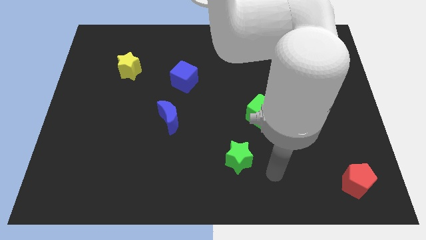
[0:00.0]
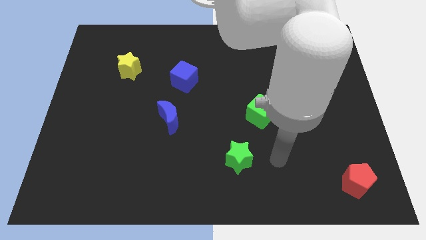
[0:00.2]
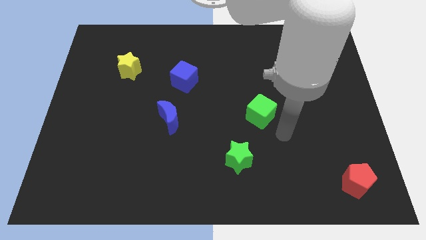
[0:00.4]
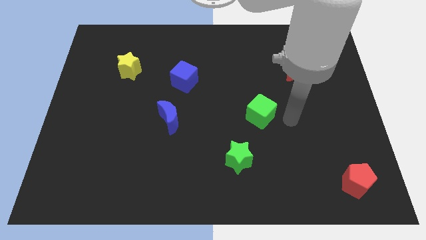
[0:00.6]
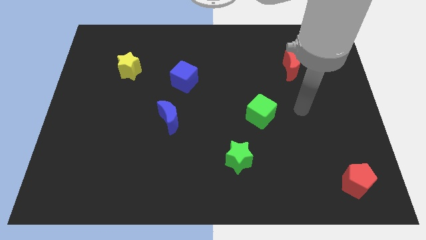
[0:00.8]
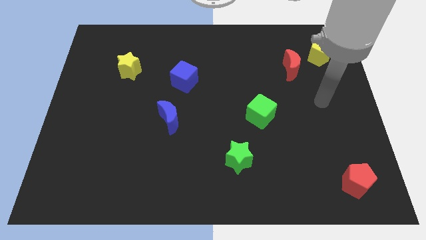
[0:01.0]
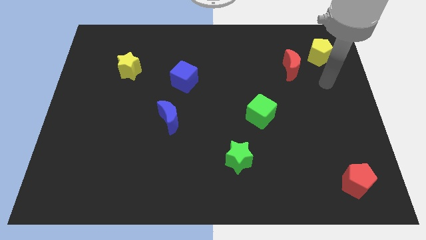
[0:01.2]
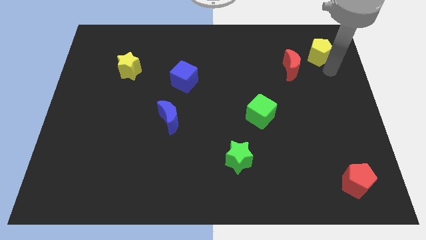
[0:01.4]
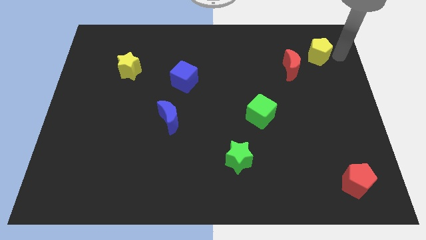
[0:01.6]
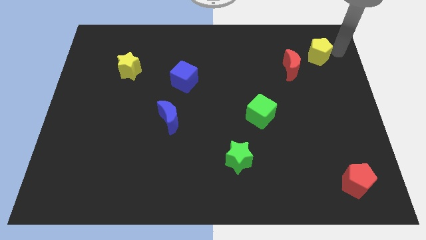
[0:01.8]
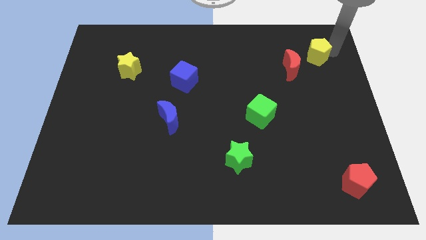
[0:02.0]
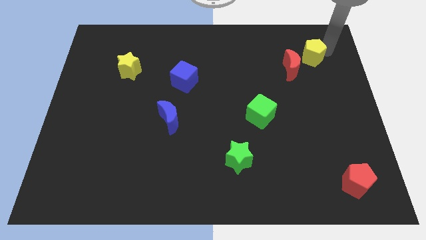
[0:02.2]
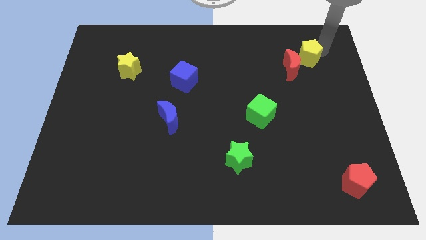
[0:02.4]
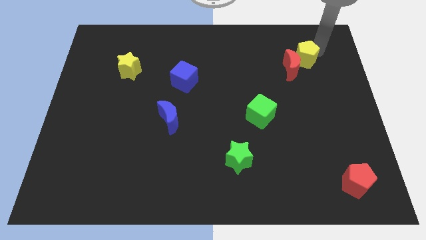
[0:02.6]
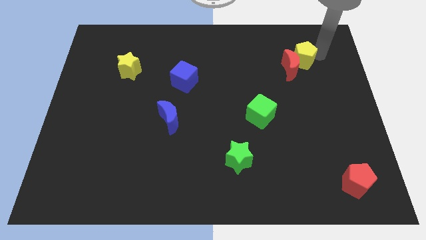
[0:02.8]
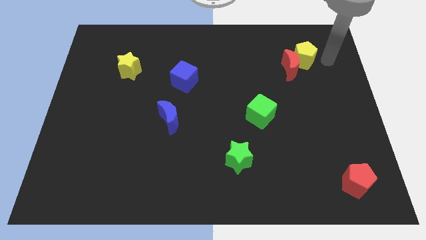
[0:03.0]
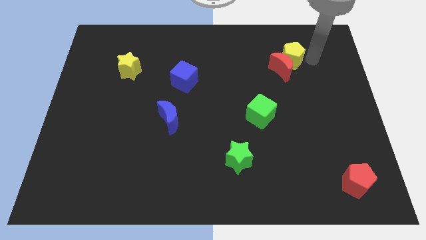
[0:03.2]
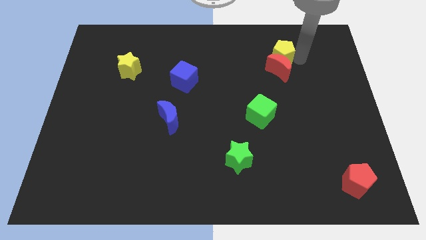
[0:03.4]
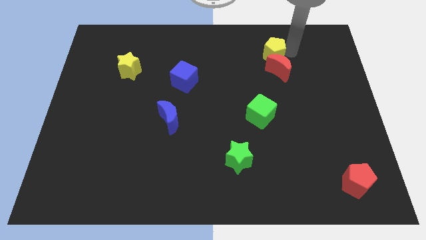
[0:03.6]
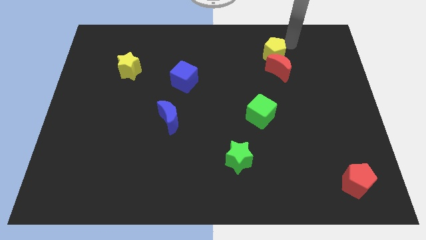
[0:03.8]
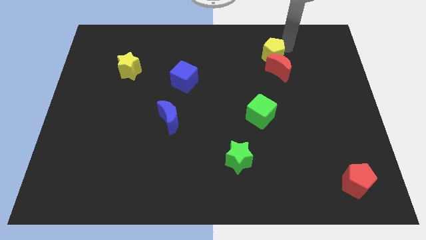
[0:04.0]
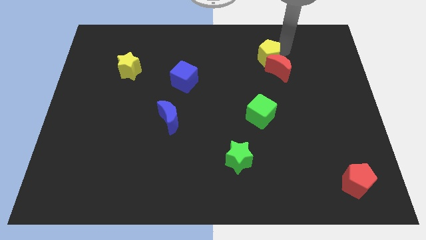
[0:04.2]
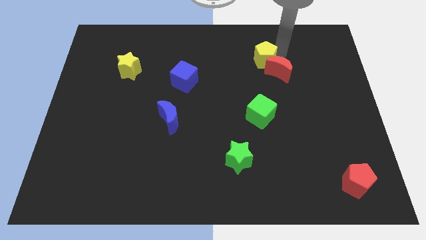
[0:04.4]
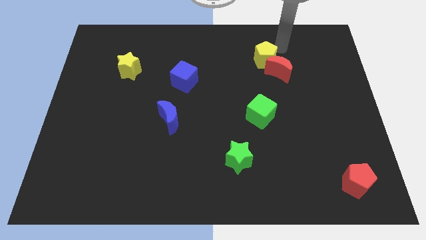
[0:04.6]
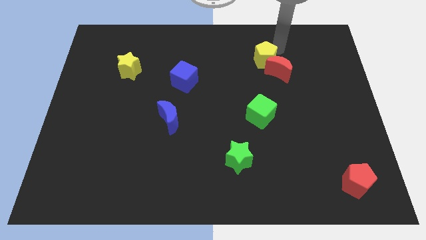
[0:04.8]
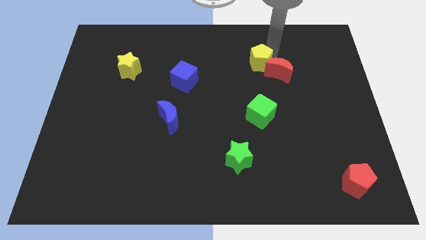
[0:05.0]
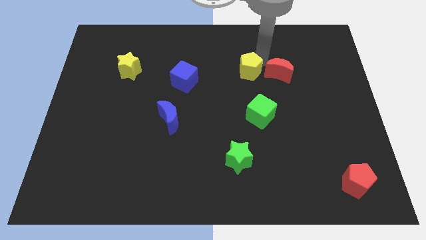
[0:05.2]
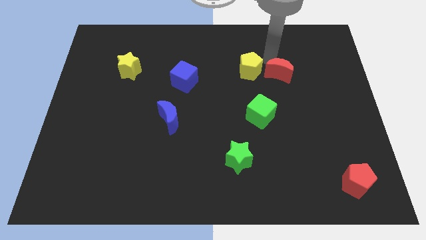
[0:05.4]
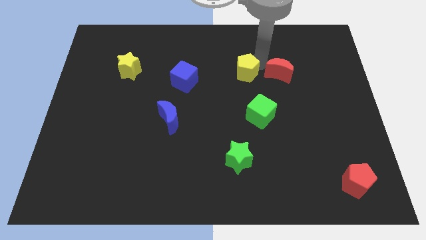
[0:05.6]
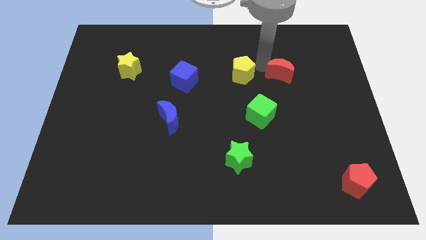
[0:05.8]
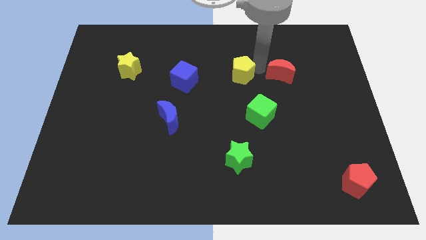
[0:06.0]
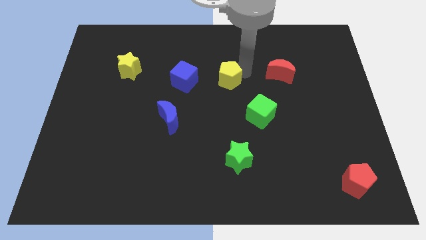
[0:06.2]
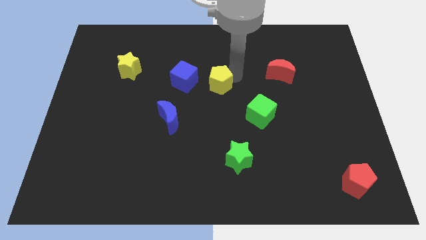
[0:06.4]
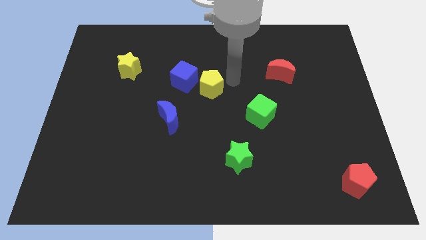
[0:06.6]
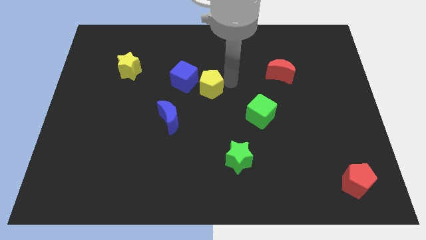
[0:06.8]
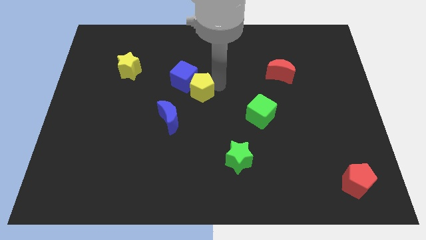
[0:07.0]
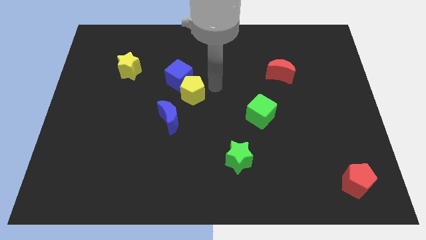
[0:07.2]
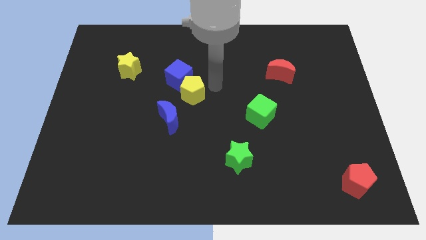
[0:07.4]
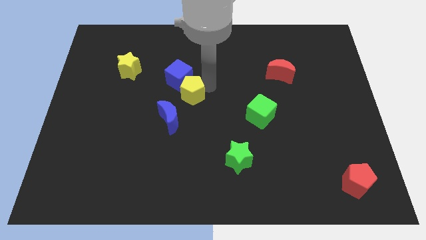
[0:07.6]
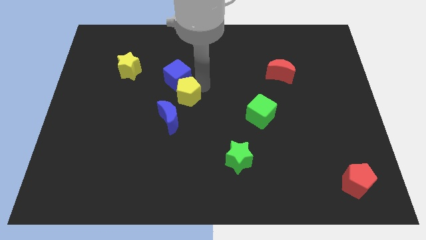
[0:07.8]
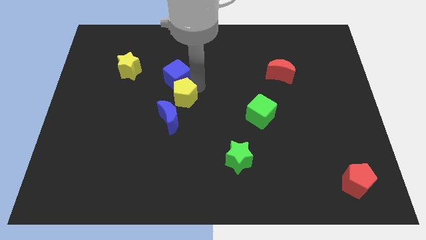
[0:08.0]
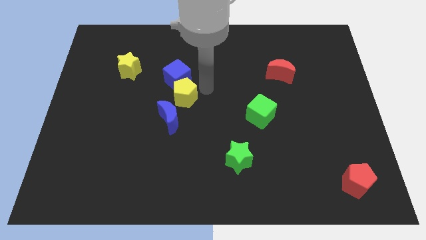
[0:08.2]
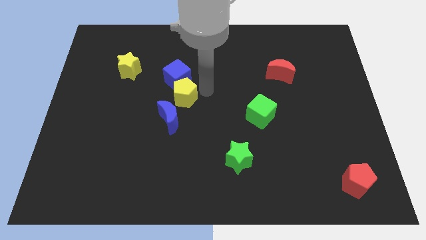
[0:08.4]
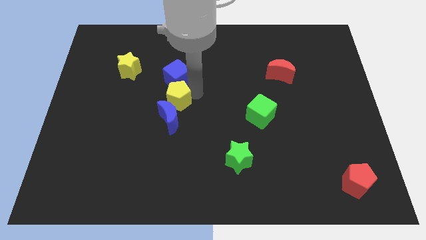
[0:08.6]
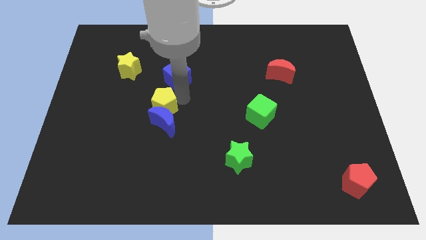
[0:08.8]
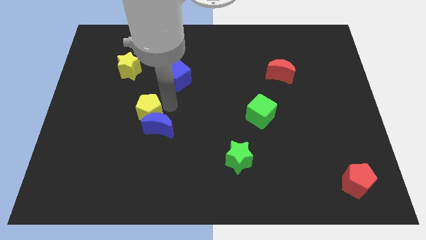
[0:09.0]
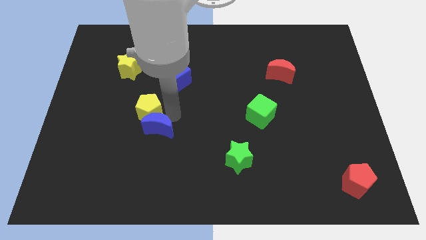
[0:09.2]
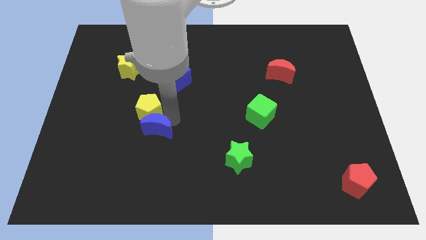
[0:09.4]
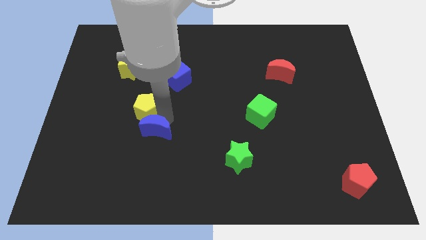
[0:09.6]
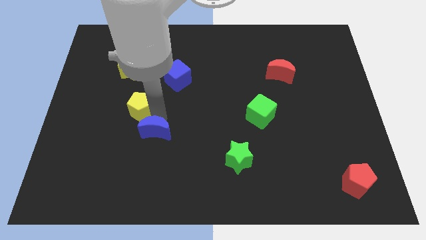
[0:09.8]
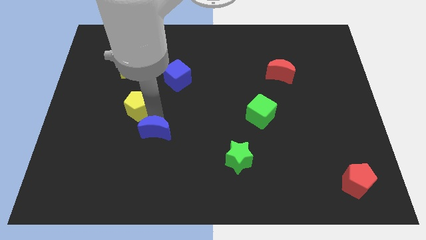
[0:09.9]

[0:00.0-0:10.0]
push the yellow pentagon to the bottom of the yellow star

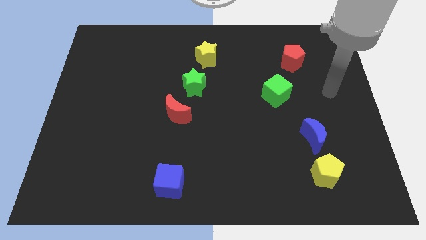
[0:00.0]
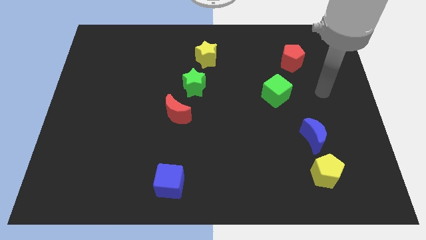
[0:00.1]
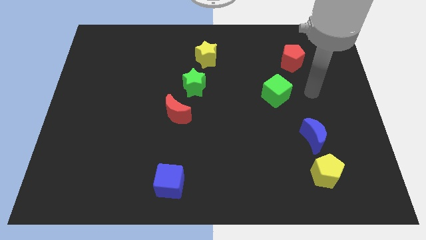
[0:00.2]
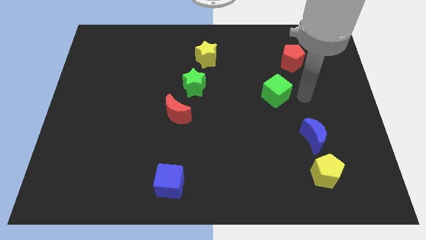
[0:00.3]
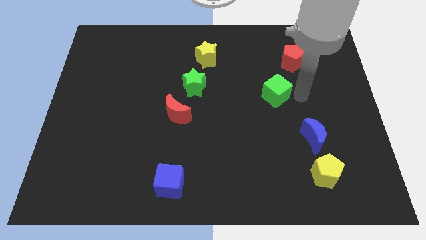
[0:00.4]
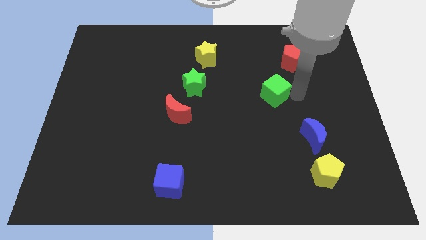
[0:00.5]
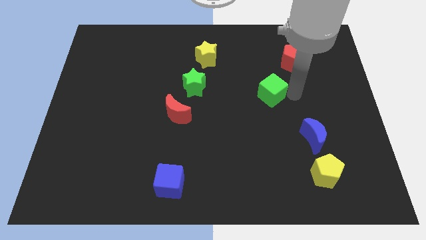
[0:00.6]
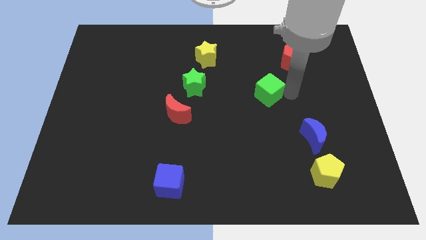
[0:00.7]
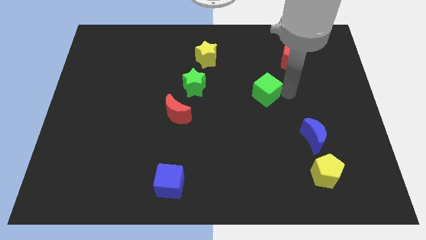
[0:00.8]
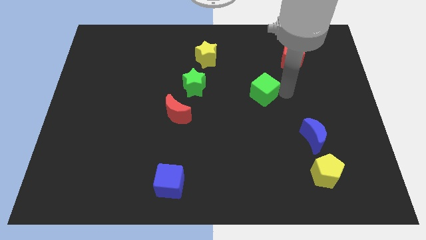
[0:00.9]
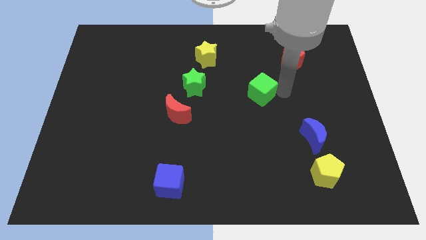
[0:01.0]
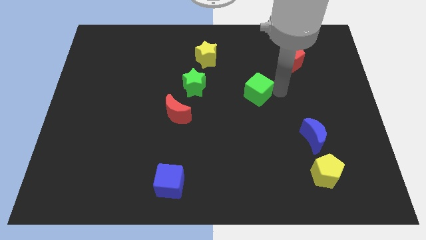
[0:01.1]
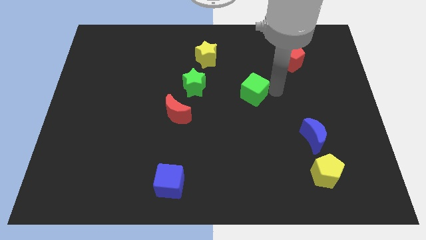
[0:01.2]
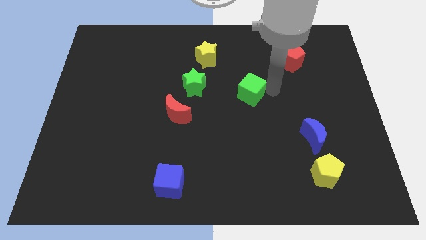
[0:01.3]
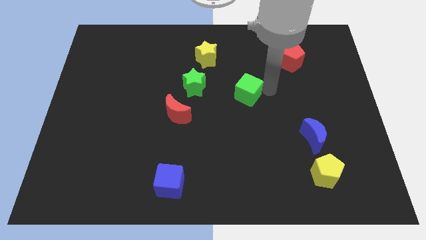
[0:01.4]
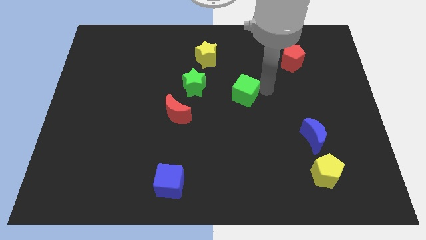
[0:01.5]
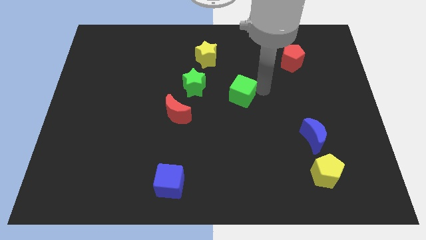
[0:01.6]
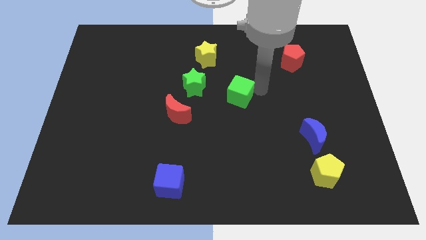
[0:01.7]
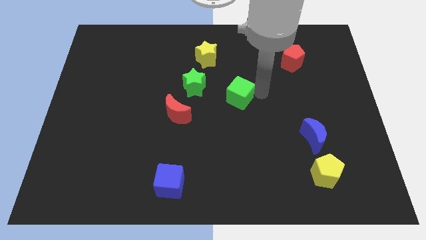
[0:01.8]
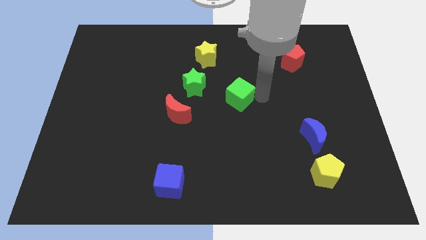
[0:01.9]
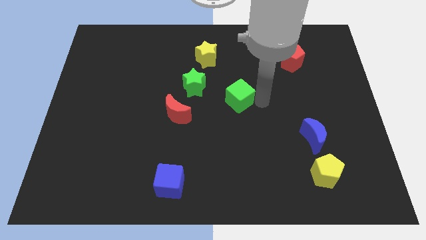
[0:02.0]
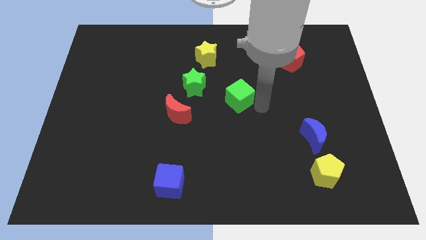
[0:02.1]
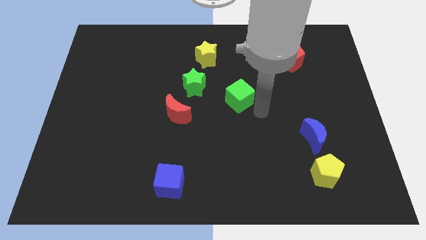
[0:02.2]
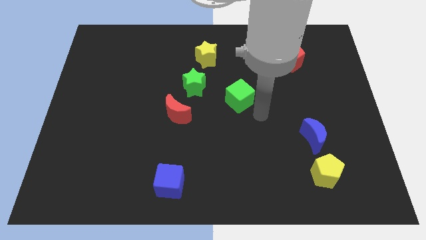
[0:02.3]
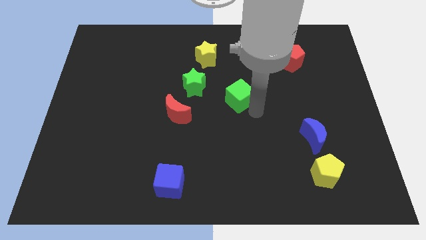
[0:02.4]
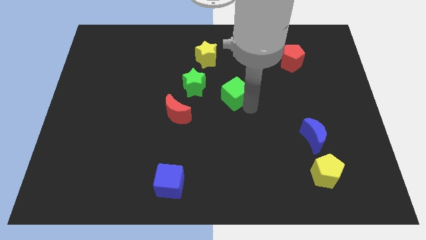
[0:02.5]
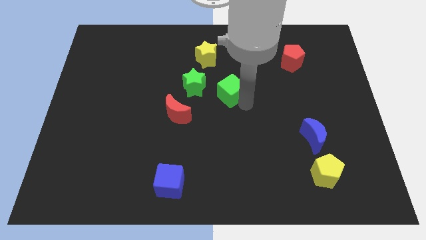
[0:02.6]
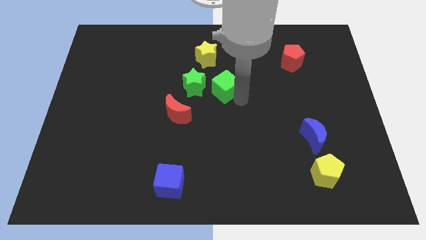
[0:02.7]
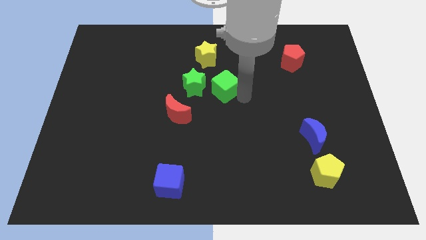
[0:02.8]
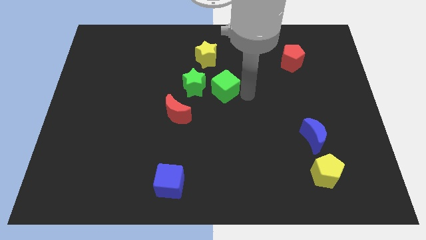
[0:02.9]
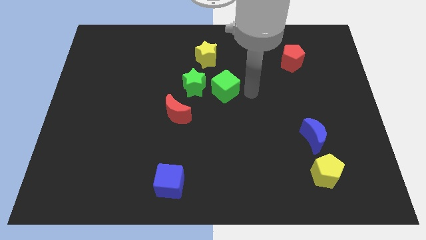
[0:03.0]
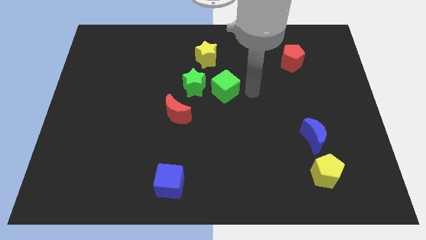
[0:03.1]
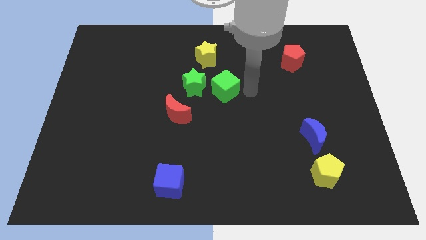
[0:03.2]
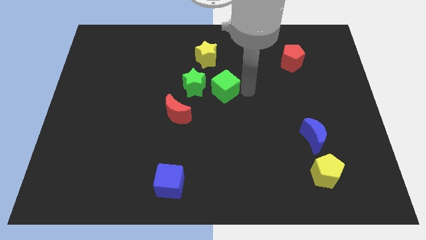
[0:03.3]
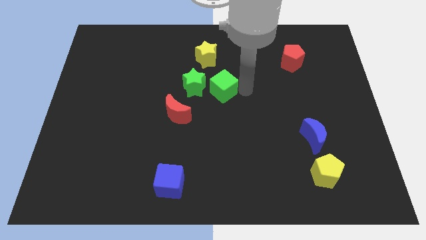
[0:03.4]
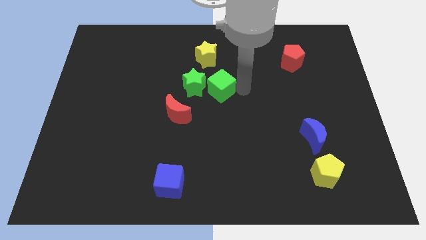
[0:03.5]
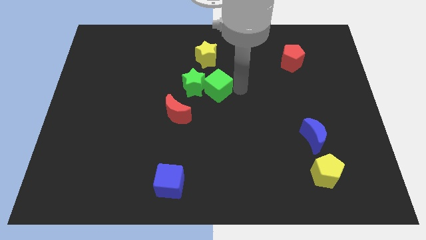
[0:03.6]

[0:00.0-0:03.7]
move the green cube to the top right of the red moon
